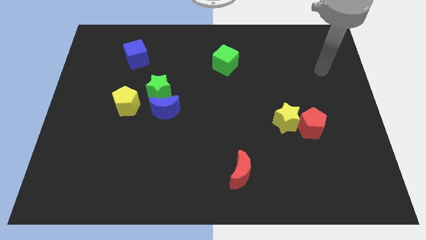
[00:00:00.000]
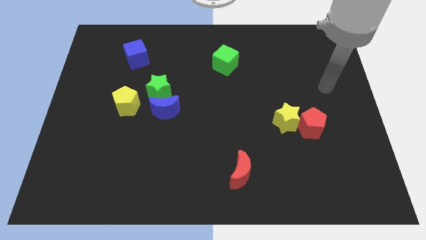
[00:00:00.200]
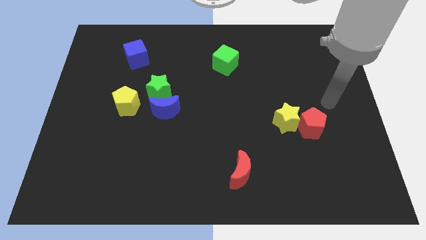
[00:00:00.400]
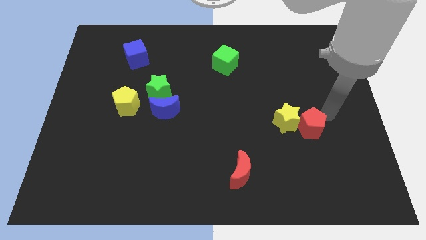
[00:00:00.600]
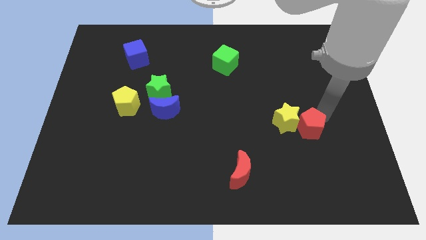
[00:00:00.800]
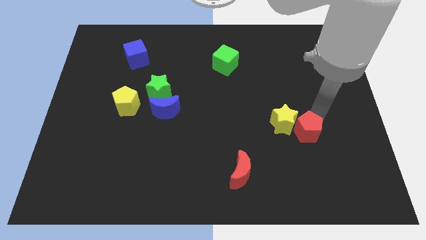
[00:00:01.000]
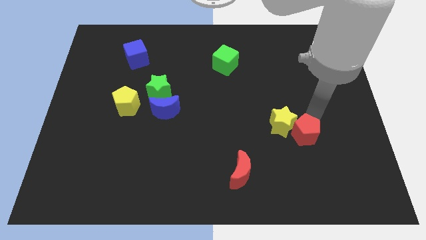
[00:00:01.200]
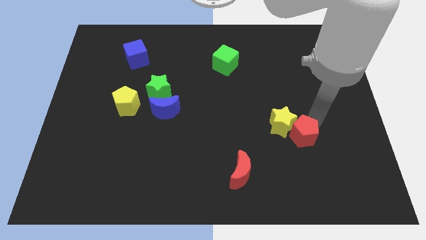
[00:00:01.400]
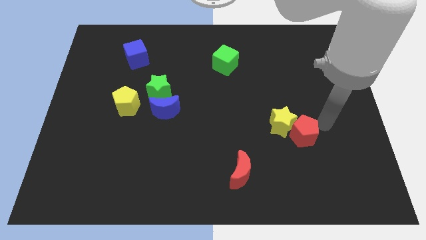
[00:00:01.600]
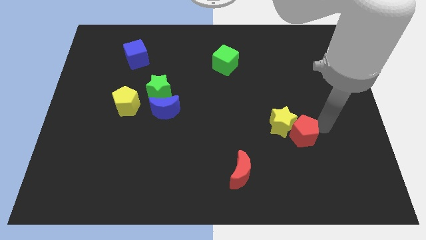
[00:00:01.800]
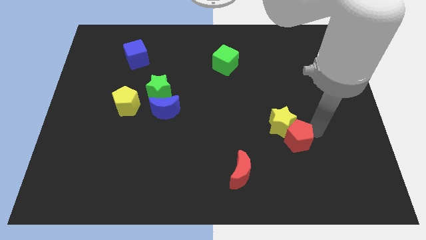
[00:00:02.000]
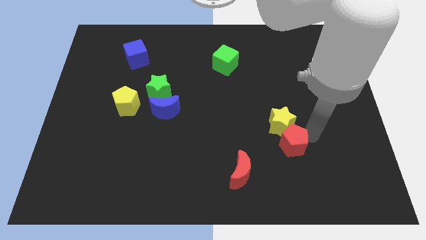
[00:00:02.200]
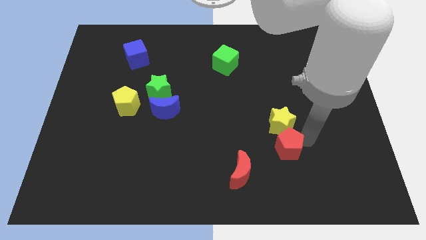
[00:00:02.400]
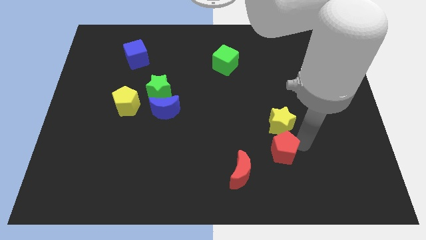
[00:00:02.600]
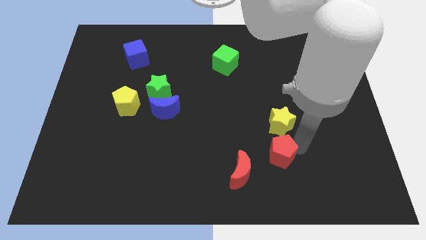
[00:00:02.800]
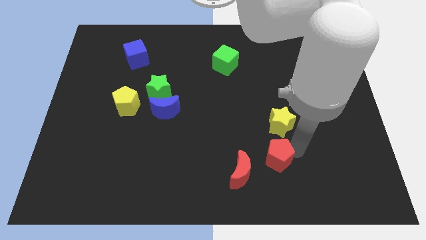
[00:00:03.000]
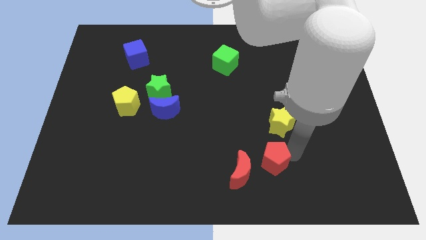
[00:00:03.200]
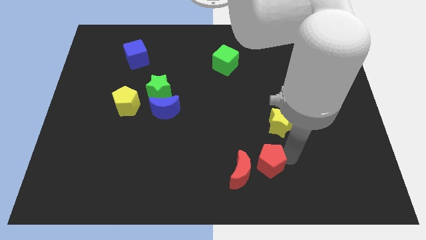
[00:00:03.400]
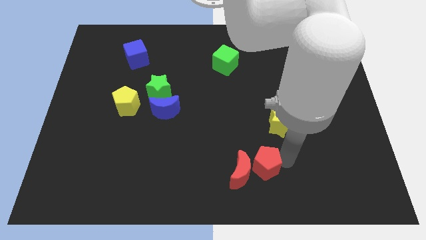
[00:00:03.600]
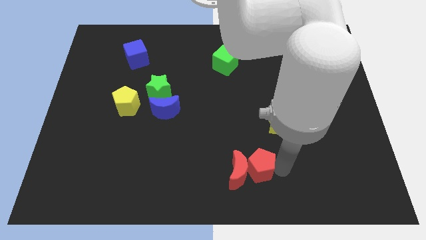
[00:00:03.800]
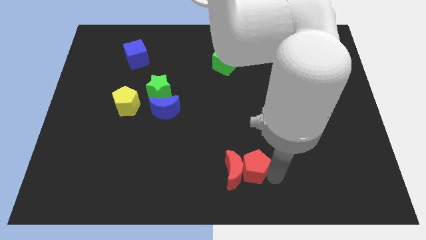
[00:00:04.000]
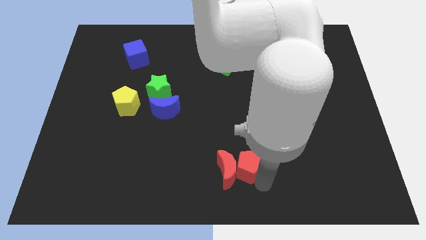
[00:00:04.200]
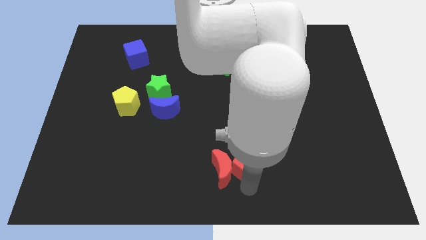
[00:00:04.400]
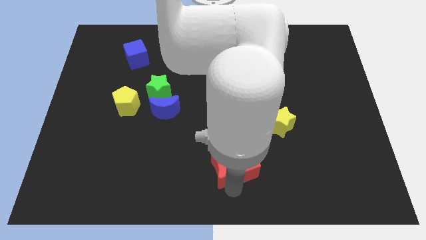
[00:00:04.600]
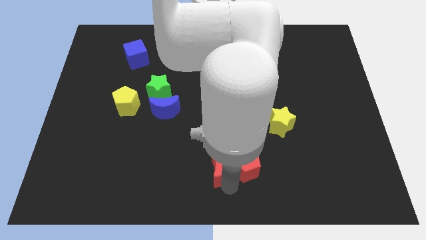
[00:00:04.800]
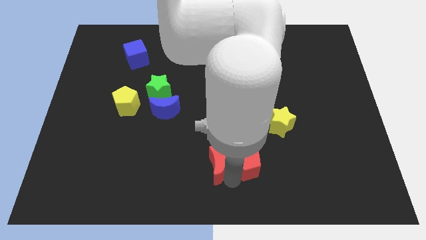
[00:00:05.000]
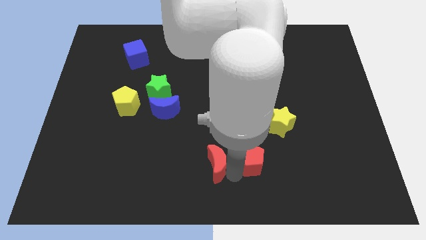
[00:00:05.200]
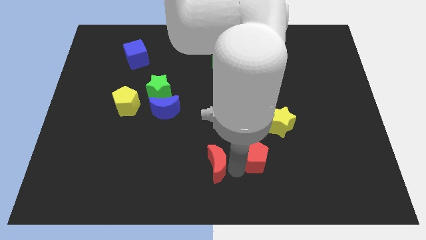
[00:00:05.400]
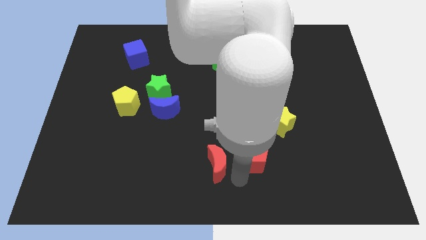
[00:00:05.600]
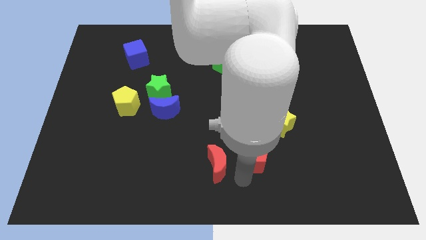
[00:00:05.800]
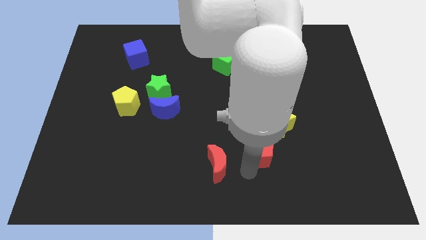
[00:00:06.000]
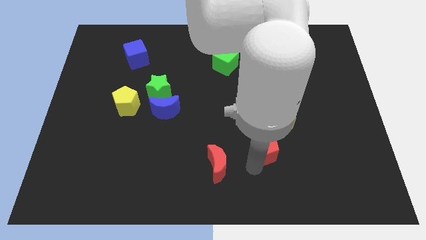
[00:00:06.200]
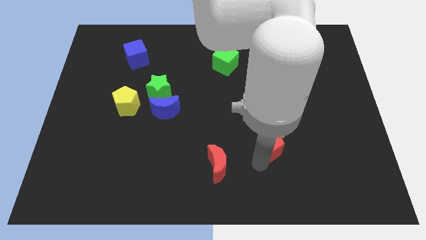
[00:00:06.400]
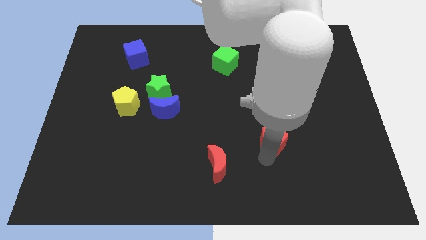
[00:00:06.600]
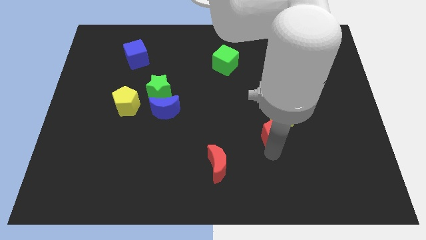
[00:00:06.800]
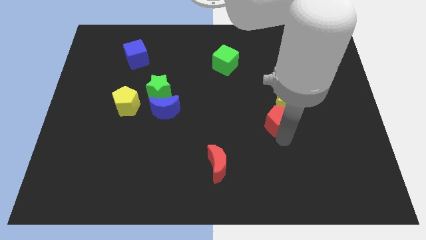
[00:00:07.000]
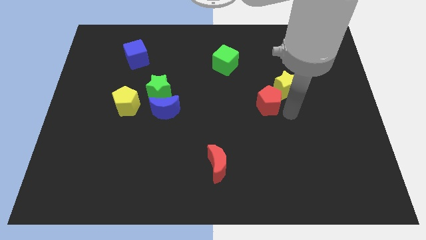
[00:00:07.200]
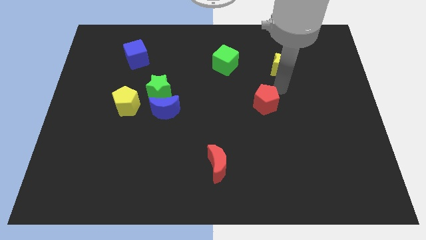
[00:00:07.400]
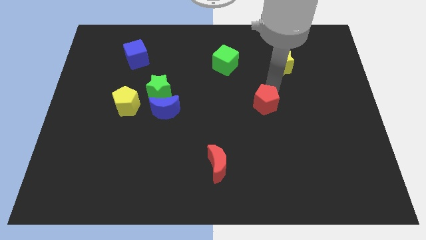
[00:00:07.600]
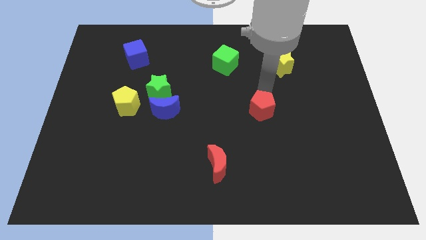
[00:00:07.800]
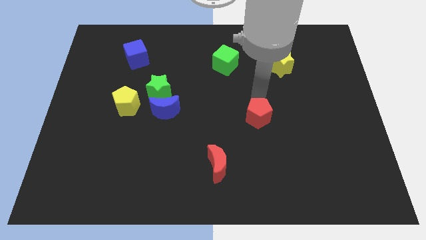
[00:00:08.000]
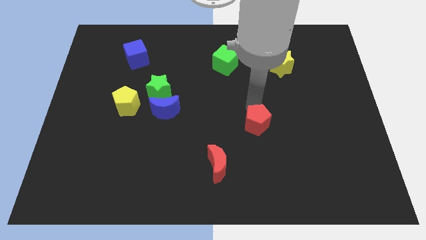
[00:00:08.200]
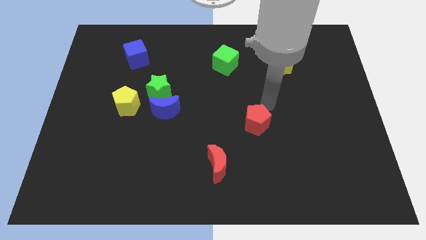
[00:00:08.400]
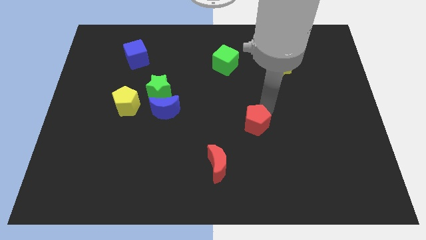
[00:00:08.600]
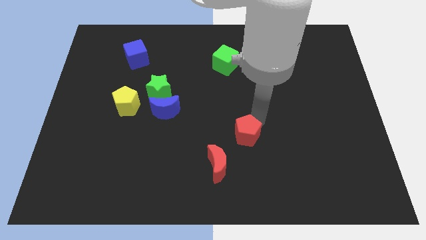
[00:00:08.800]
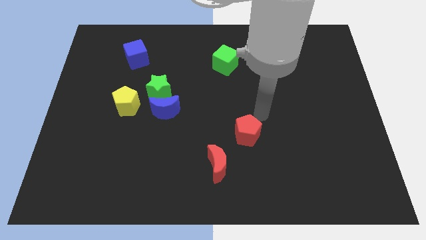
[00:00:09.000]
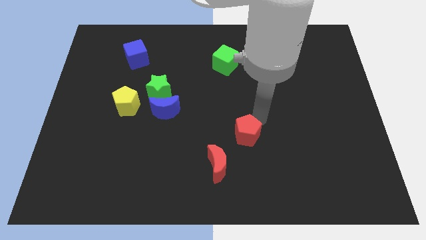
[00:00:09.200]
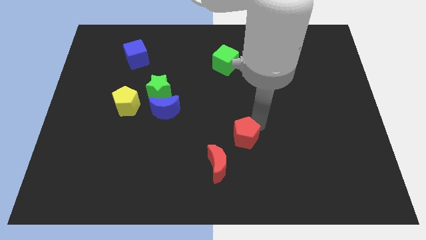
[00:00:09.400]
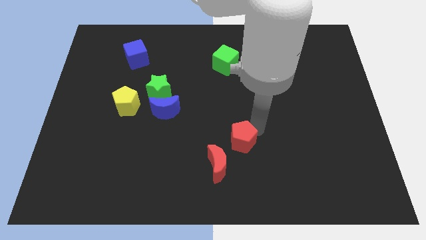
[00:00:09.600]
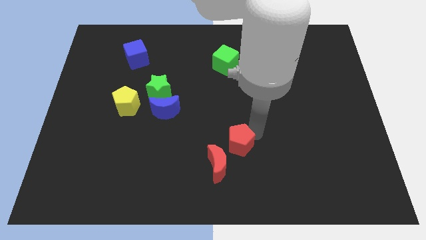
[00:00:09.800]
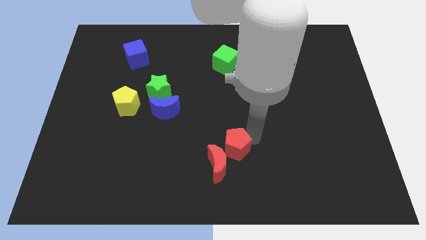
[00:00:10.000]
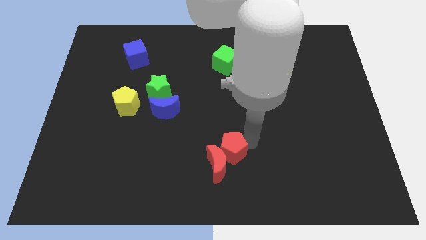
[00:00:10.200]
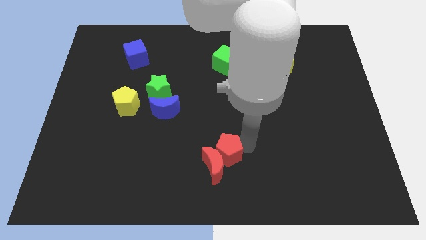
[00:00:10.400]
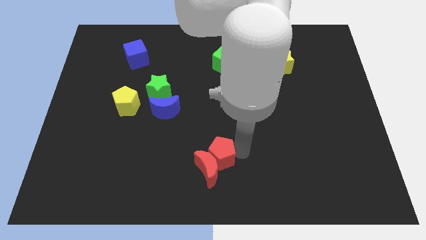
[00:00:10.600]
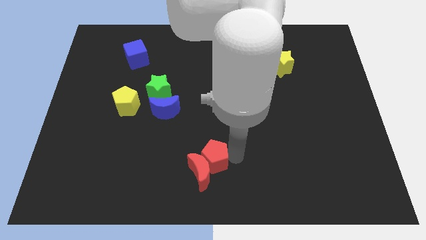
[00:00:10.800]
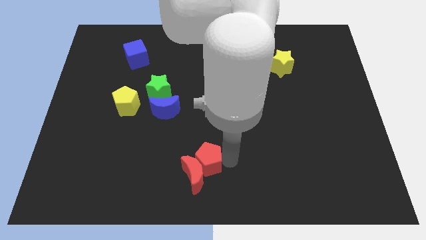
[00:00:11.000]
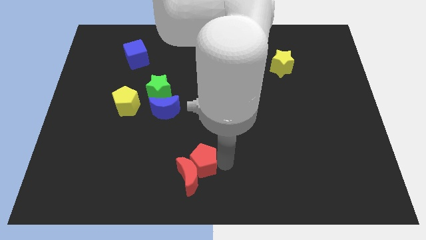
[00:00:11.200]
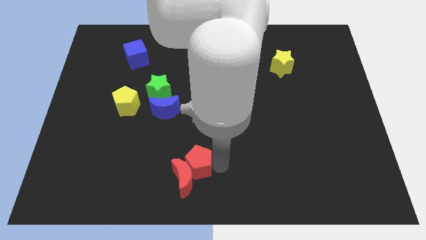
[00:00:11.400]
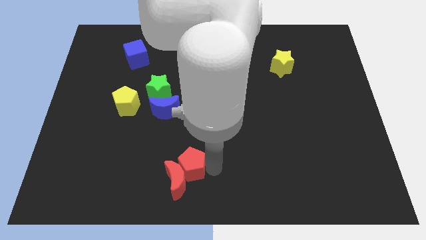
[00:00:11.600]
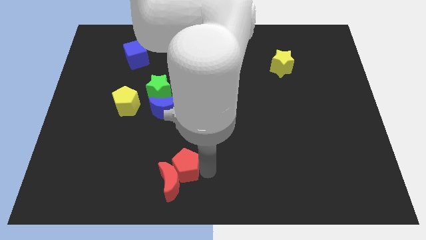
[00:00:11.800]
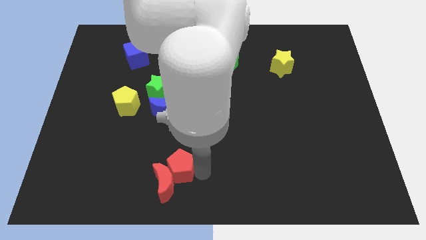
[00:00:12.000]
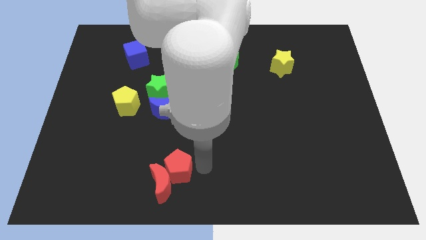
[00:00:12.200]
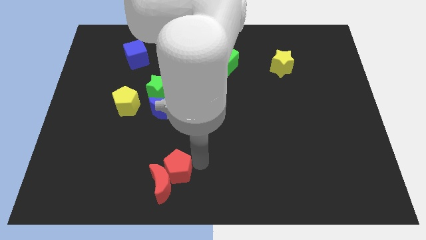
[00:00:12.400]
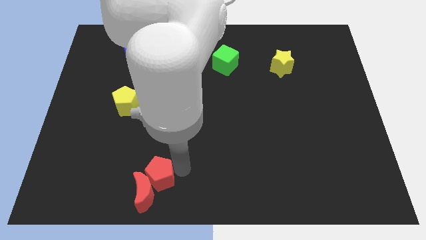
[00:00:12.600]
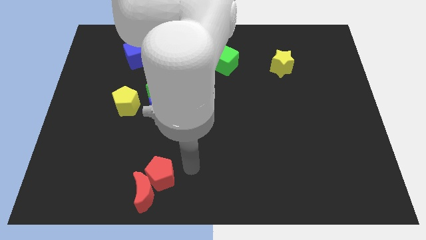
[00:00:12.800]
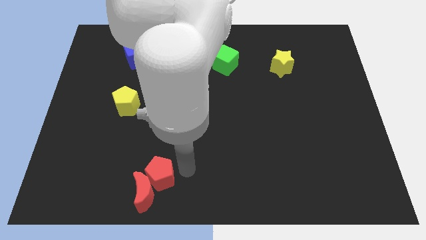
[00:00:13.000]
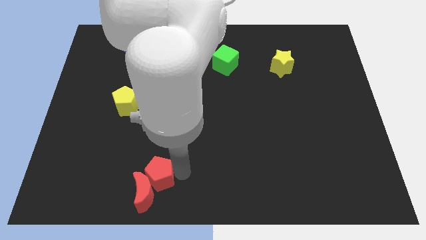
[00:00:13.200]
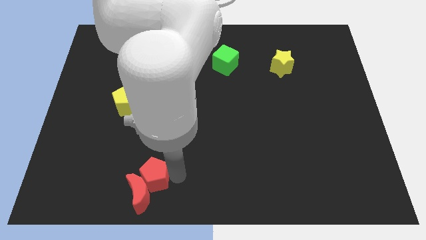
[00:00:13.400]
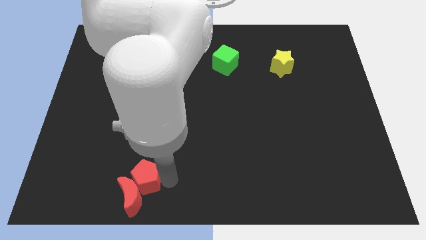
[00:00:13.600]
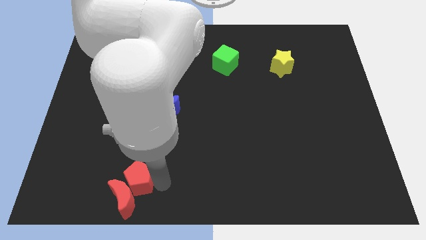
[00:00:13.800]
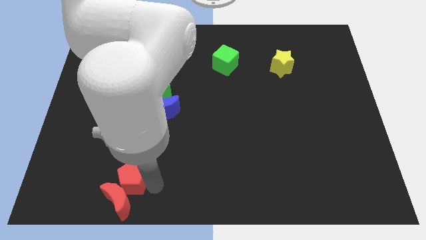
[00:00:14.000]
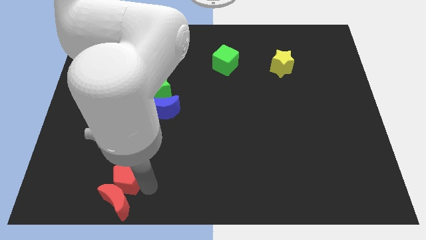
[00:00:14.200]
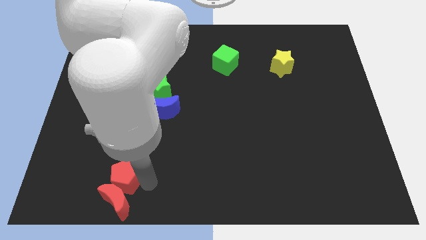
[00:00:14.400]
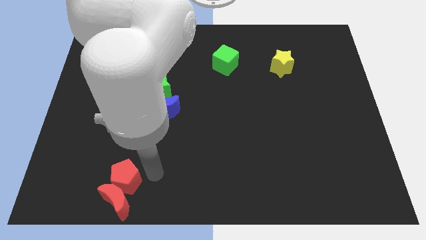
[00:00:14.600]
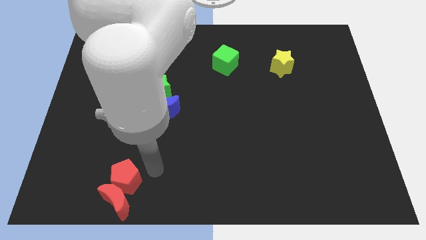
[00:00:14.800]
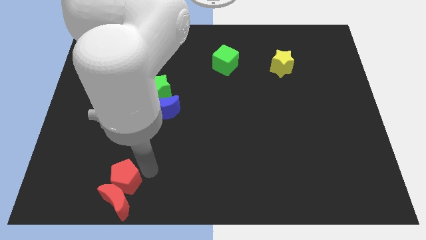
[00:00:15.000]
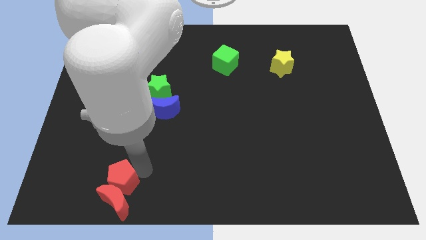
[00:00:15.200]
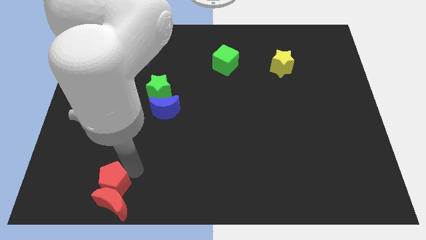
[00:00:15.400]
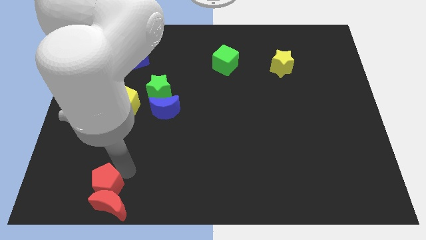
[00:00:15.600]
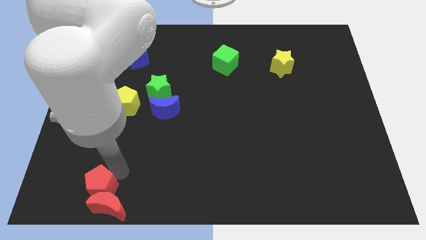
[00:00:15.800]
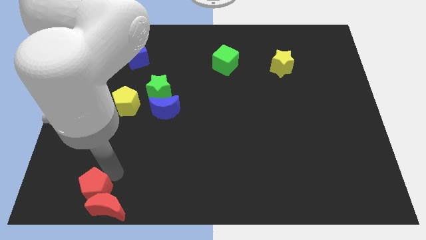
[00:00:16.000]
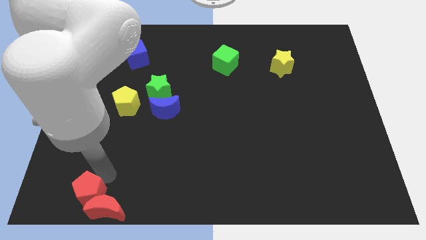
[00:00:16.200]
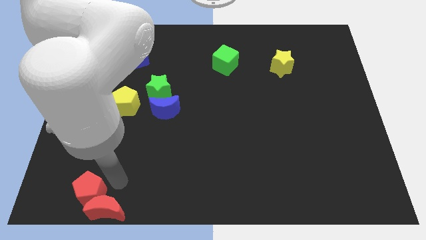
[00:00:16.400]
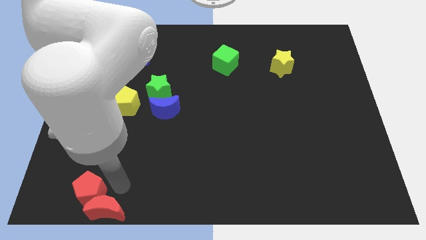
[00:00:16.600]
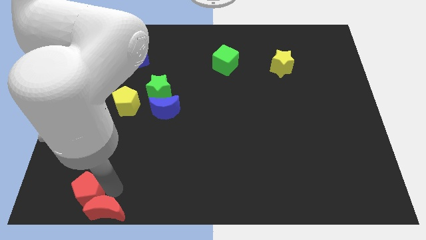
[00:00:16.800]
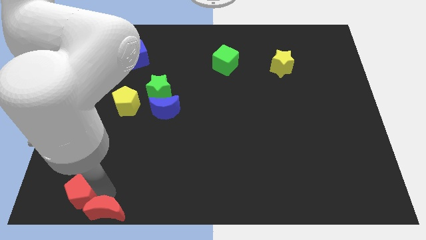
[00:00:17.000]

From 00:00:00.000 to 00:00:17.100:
push the red pentagon to the lower left corner
